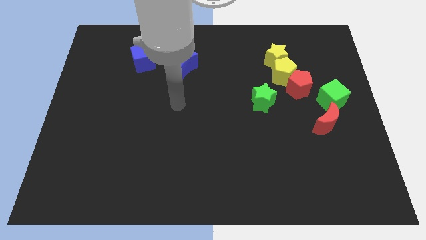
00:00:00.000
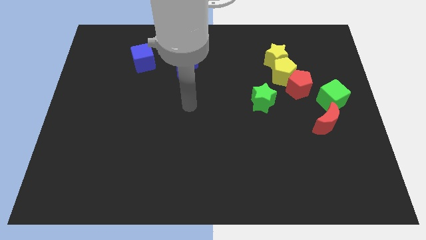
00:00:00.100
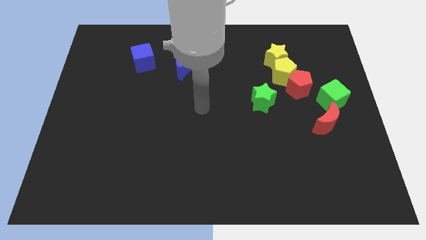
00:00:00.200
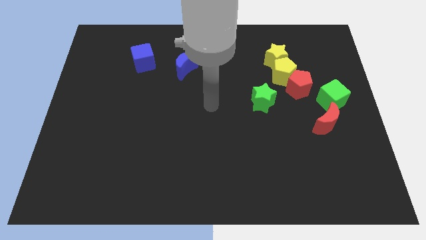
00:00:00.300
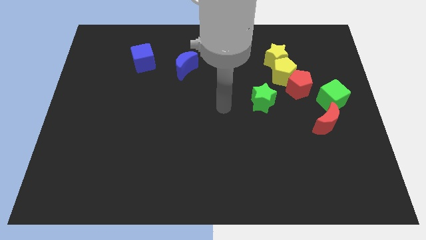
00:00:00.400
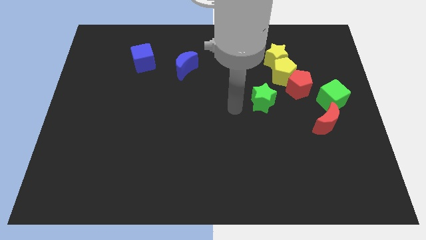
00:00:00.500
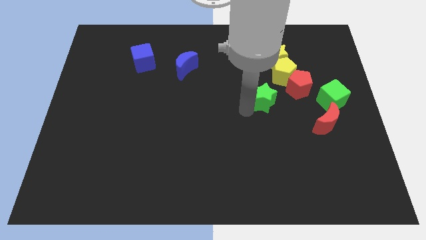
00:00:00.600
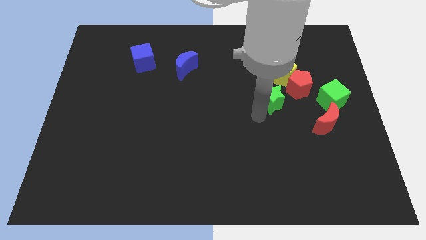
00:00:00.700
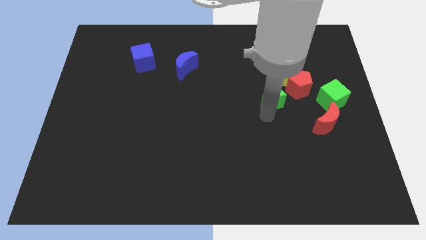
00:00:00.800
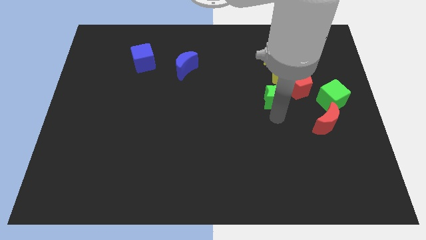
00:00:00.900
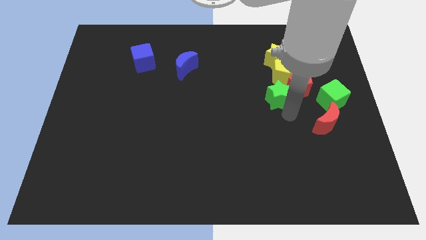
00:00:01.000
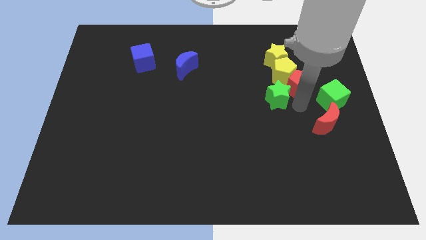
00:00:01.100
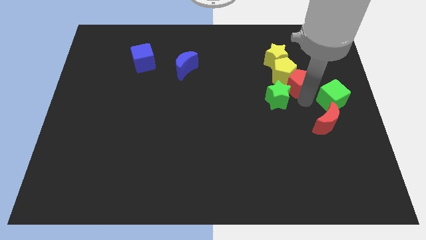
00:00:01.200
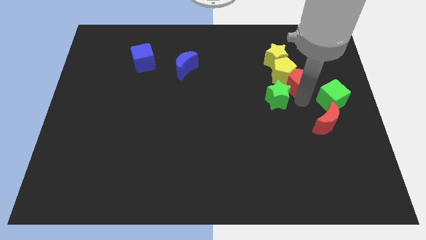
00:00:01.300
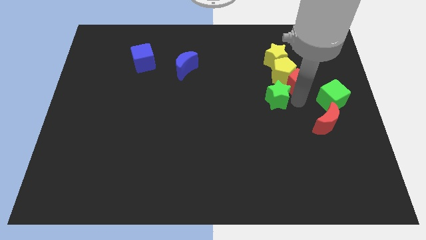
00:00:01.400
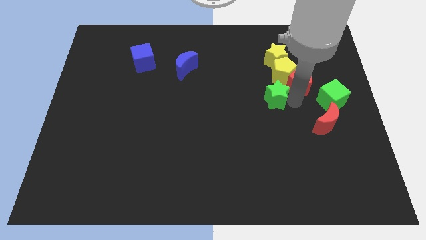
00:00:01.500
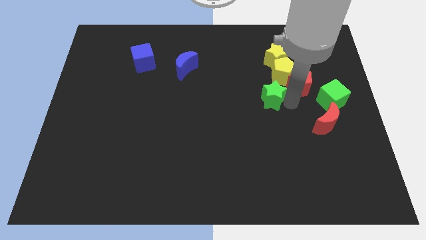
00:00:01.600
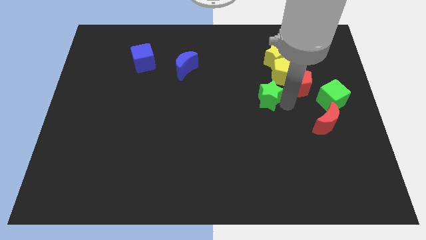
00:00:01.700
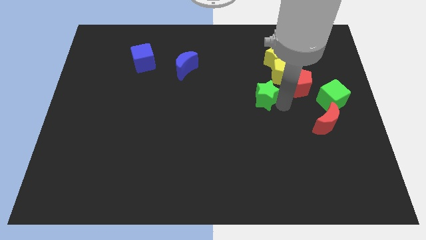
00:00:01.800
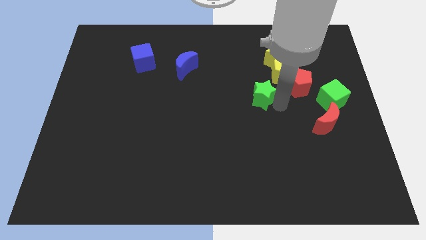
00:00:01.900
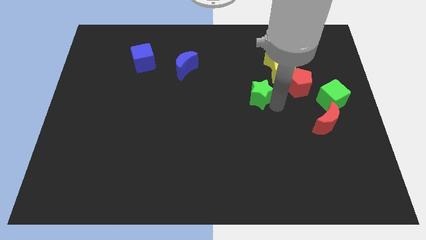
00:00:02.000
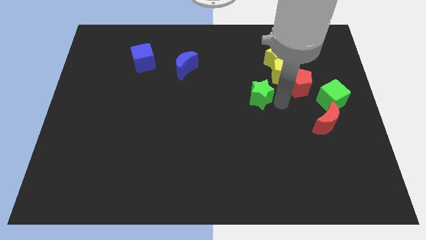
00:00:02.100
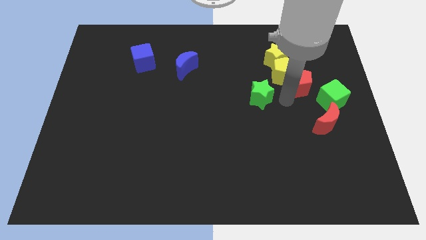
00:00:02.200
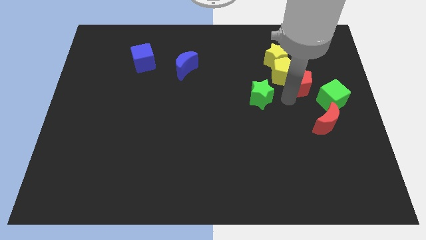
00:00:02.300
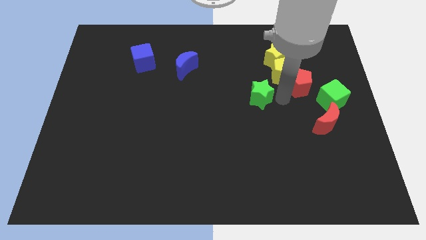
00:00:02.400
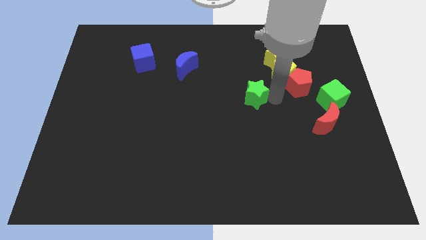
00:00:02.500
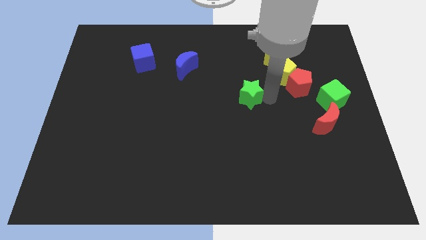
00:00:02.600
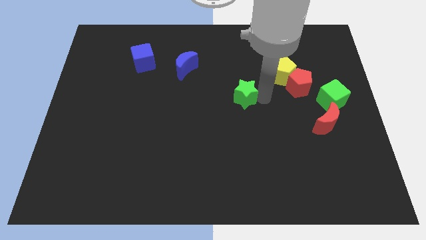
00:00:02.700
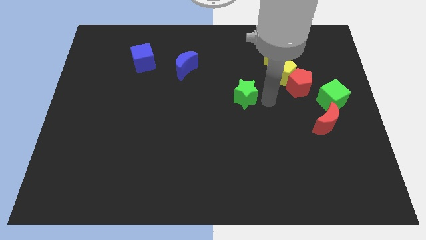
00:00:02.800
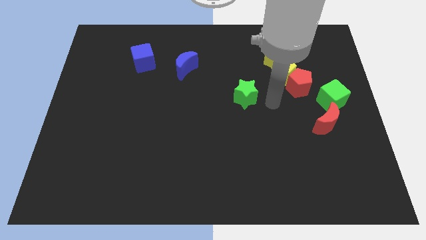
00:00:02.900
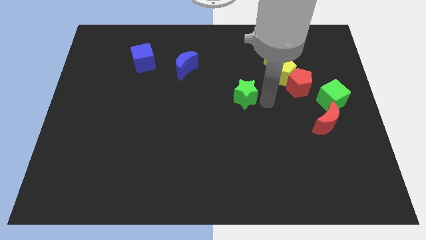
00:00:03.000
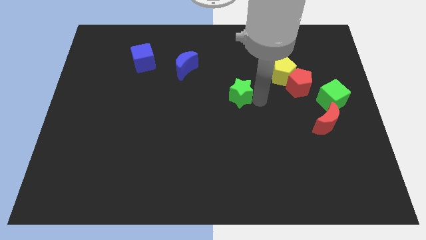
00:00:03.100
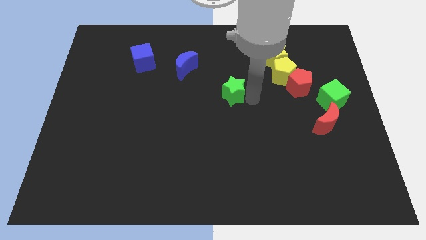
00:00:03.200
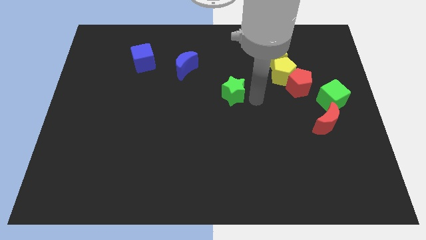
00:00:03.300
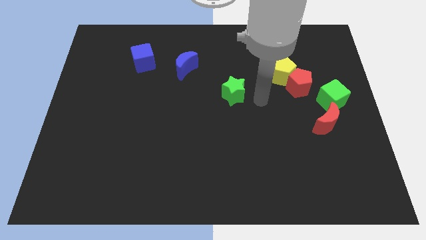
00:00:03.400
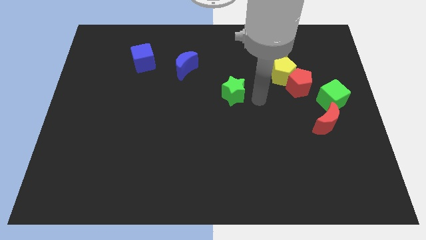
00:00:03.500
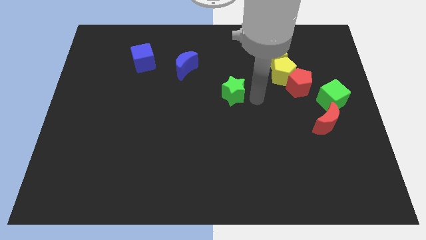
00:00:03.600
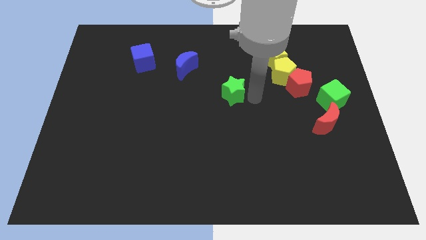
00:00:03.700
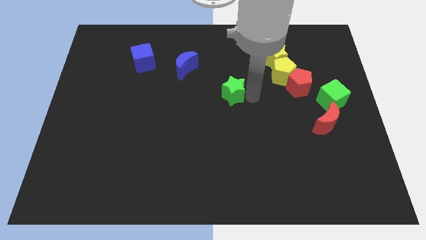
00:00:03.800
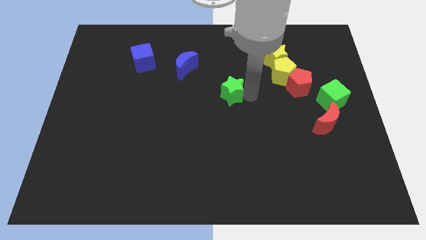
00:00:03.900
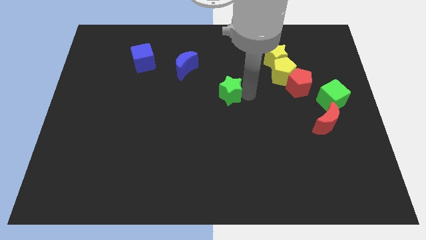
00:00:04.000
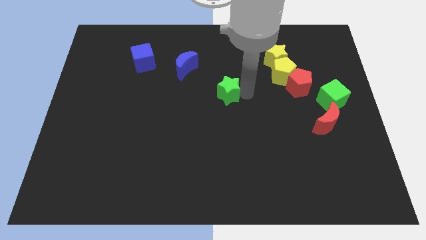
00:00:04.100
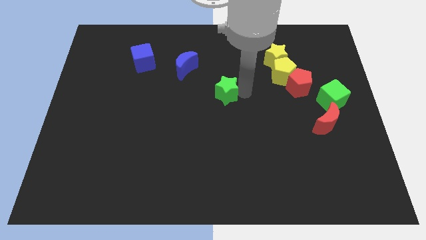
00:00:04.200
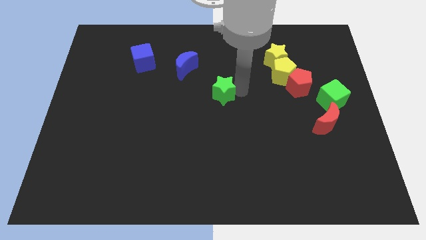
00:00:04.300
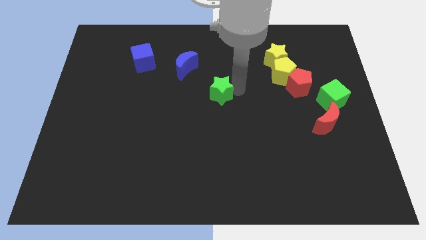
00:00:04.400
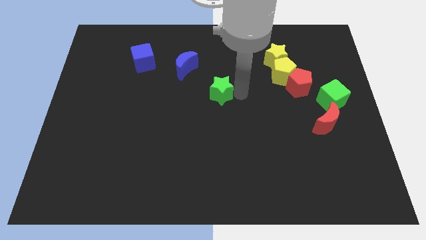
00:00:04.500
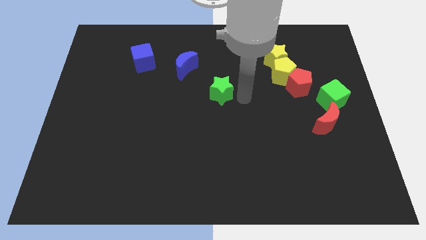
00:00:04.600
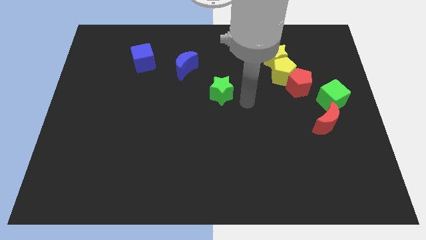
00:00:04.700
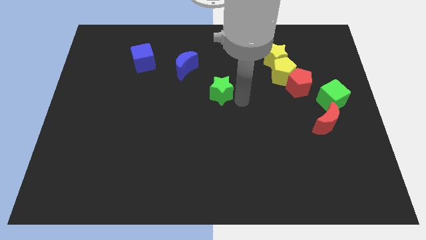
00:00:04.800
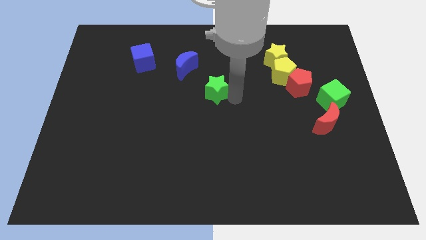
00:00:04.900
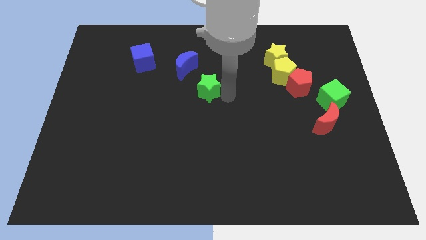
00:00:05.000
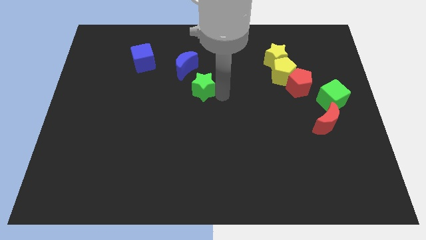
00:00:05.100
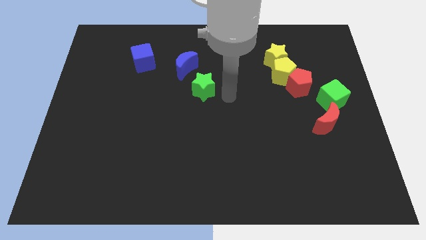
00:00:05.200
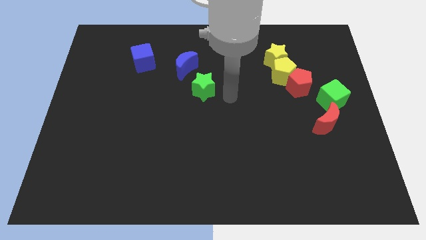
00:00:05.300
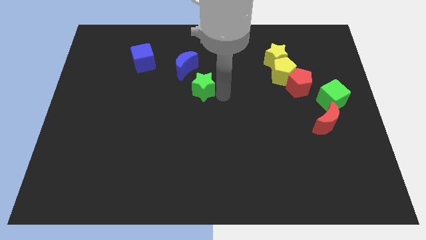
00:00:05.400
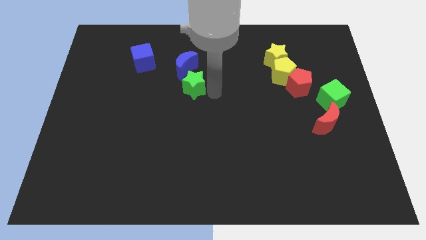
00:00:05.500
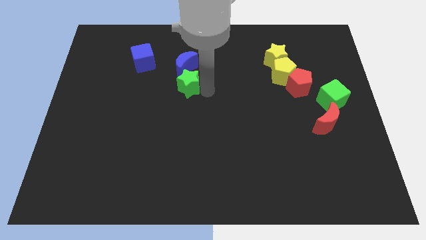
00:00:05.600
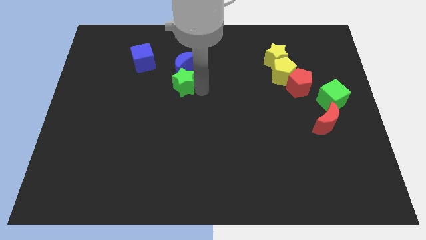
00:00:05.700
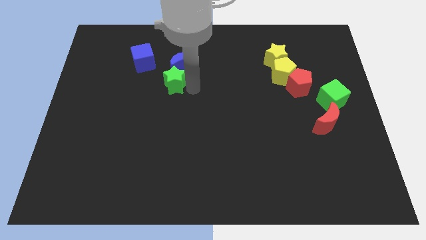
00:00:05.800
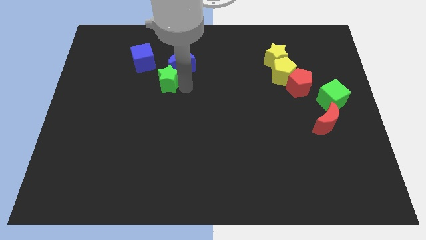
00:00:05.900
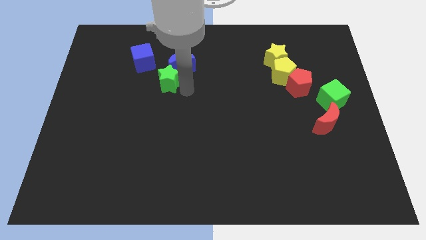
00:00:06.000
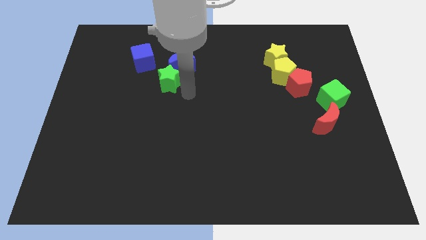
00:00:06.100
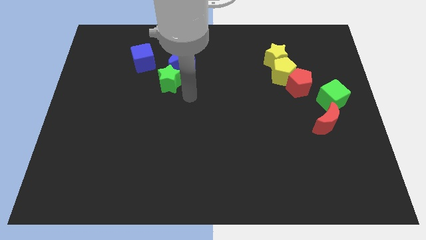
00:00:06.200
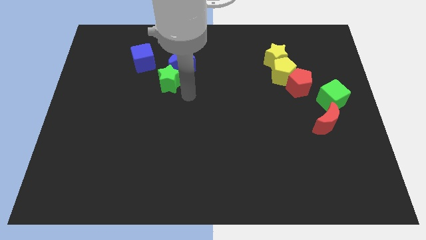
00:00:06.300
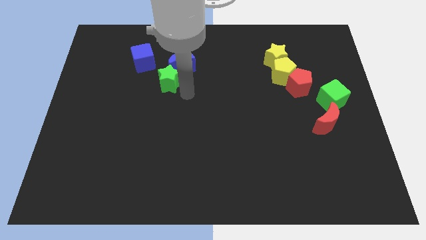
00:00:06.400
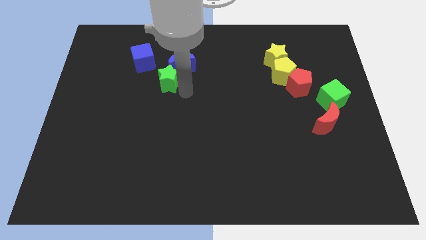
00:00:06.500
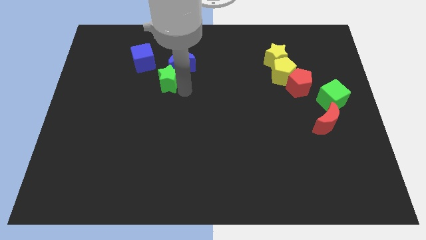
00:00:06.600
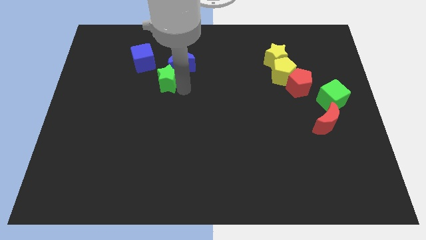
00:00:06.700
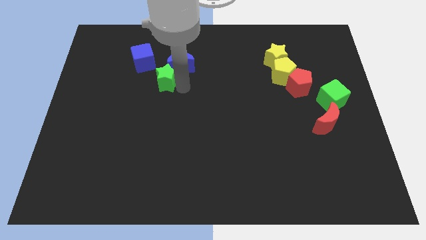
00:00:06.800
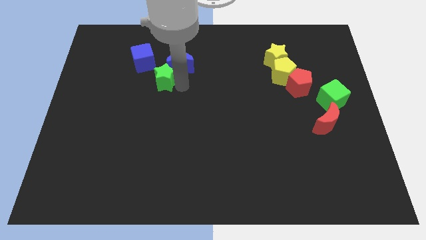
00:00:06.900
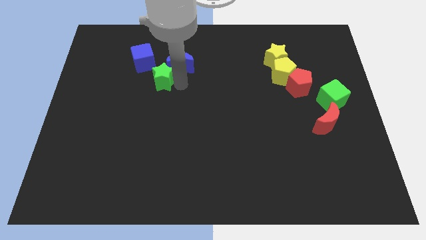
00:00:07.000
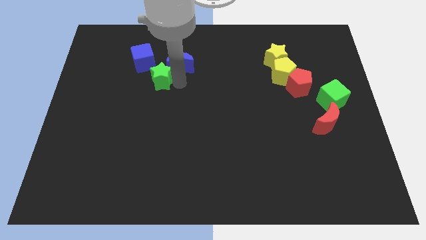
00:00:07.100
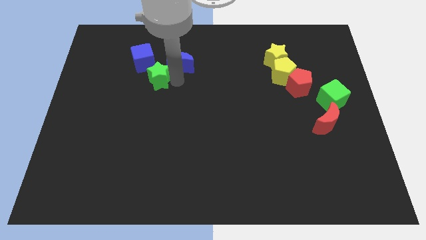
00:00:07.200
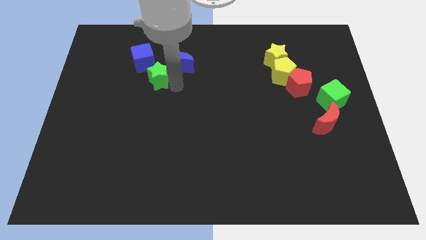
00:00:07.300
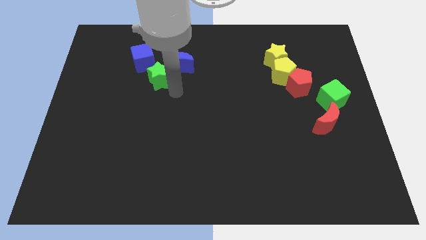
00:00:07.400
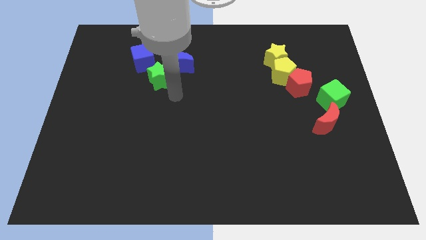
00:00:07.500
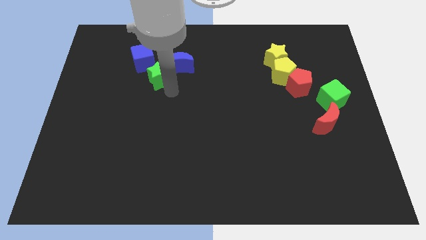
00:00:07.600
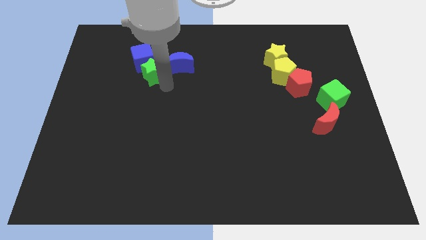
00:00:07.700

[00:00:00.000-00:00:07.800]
move the green star towards the blue cube

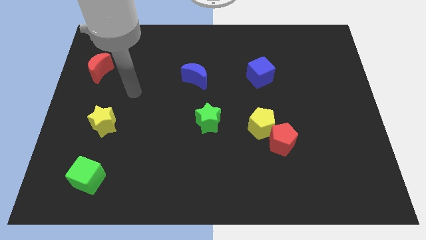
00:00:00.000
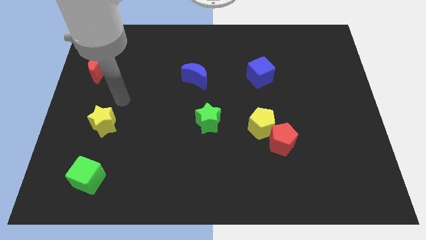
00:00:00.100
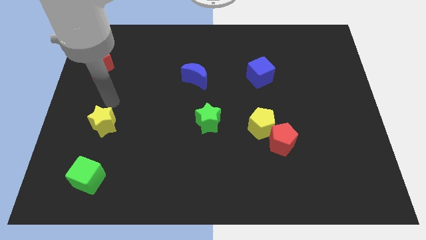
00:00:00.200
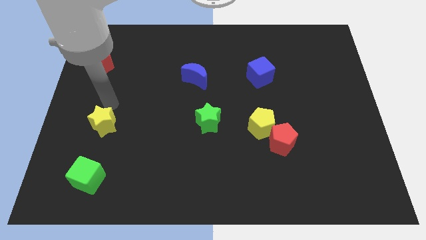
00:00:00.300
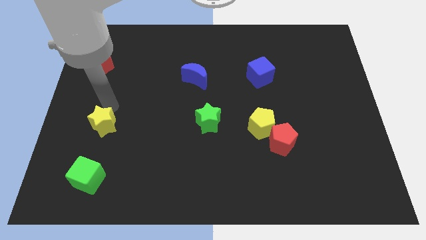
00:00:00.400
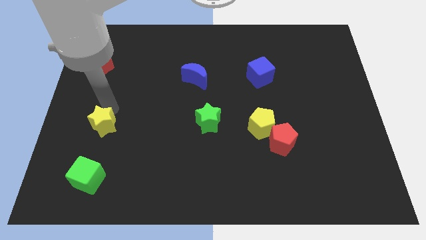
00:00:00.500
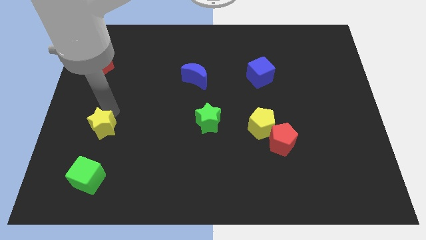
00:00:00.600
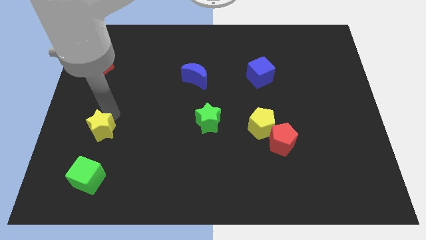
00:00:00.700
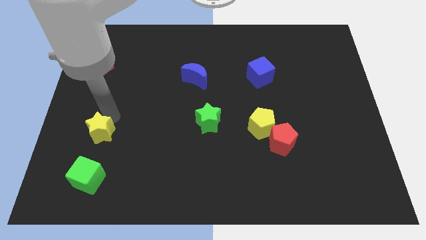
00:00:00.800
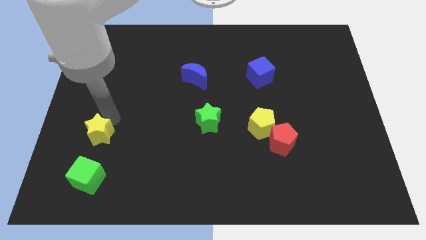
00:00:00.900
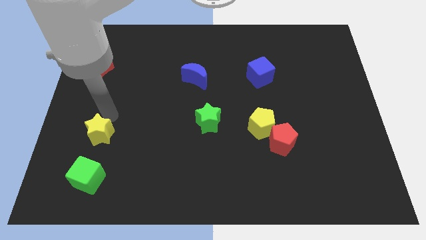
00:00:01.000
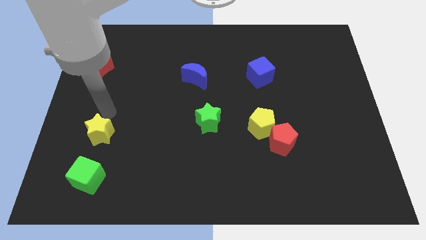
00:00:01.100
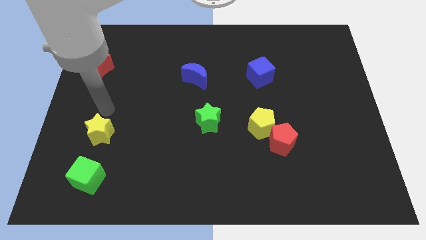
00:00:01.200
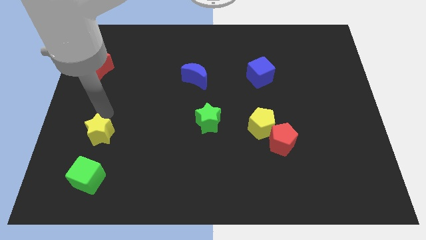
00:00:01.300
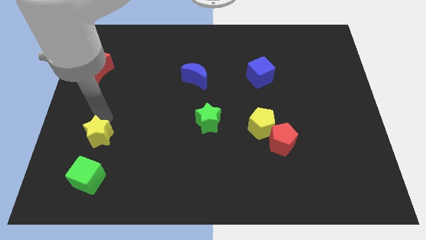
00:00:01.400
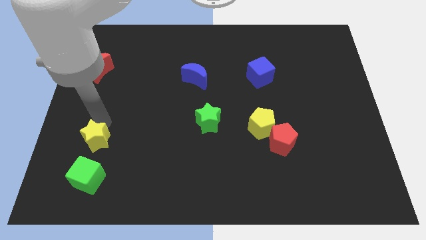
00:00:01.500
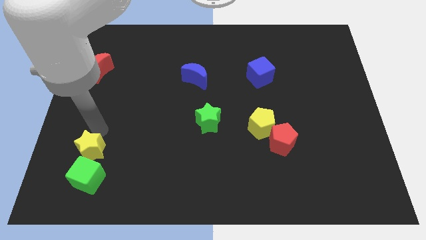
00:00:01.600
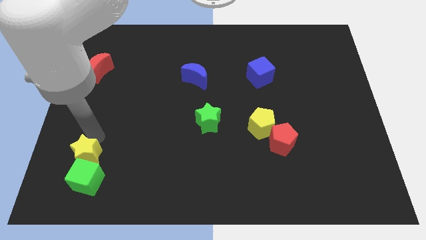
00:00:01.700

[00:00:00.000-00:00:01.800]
slide the yellow star close to the green cube
